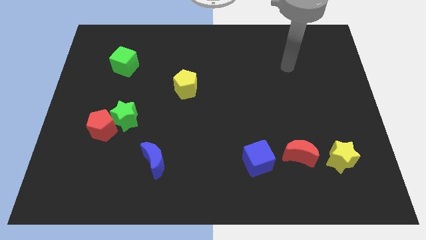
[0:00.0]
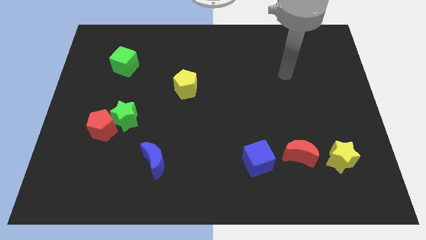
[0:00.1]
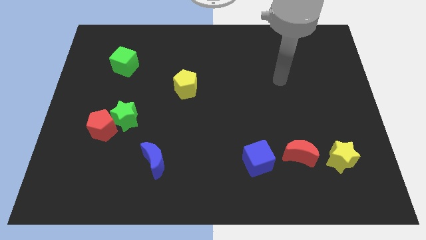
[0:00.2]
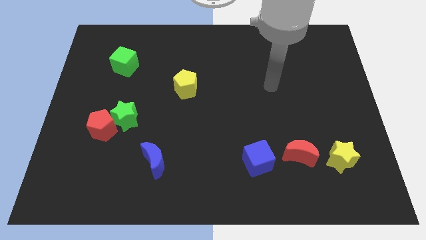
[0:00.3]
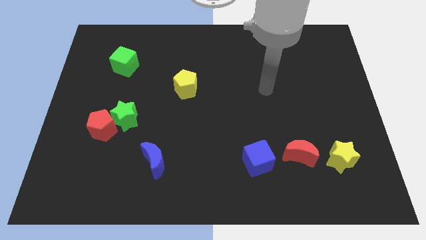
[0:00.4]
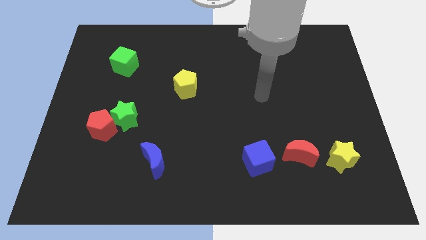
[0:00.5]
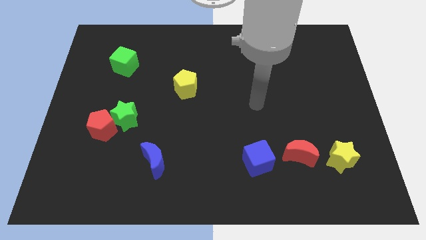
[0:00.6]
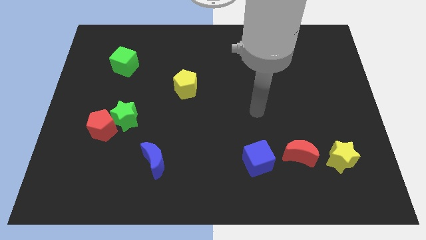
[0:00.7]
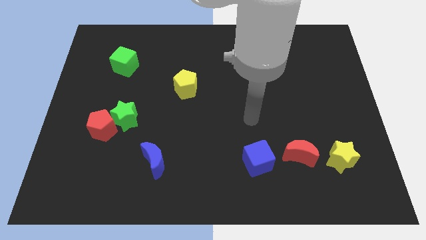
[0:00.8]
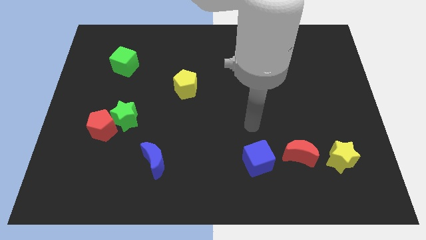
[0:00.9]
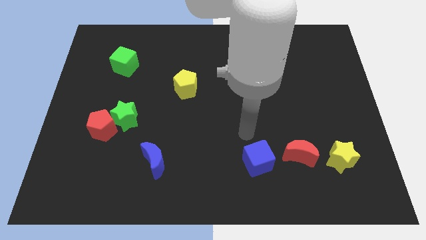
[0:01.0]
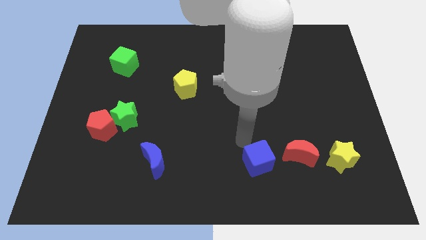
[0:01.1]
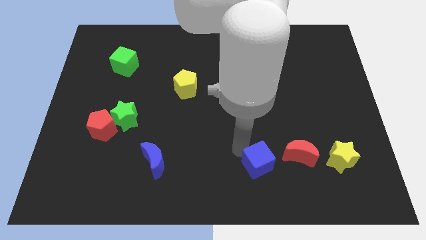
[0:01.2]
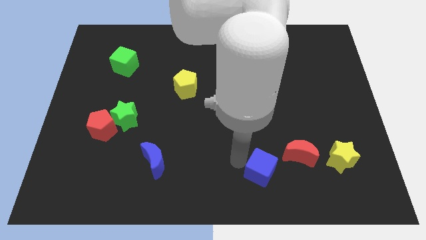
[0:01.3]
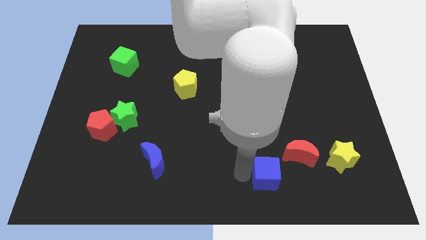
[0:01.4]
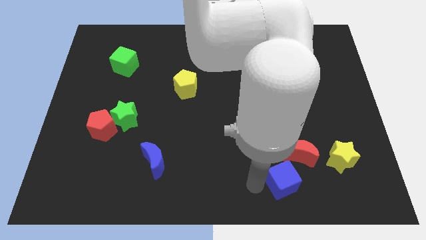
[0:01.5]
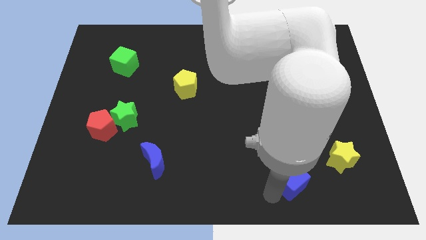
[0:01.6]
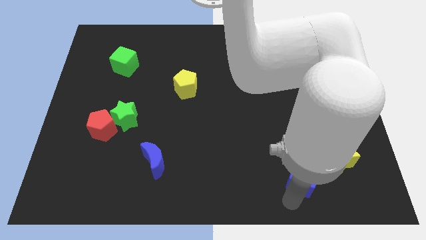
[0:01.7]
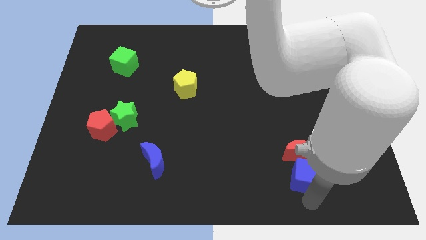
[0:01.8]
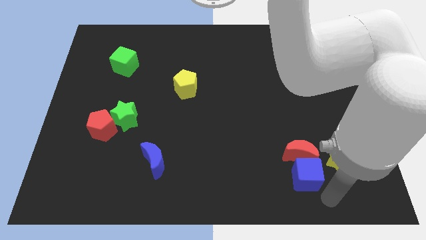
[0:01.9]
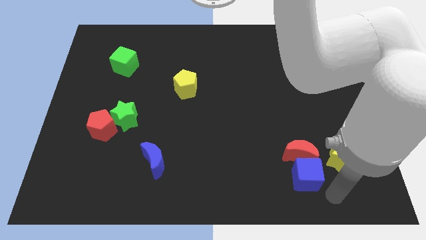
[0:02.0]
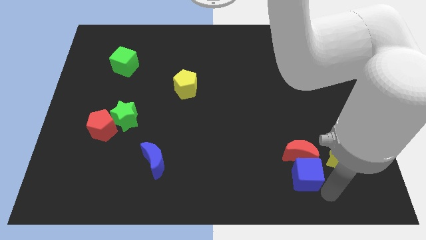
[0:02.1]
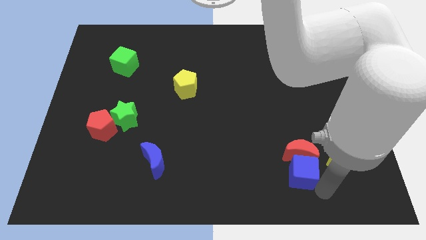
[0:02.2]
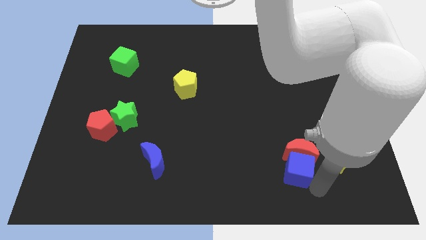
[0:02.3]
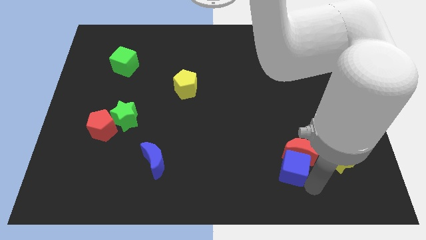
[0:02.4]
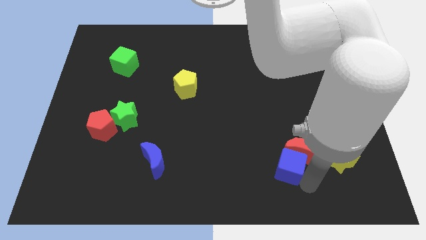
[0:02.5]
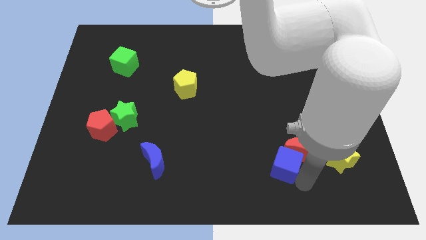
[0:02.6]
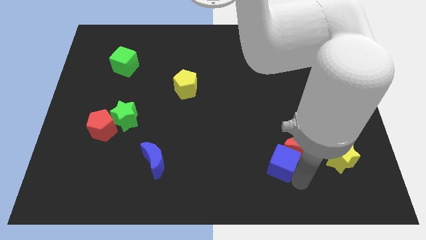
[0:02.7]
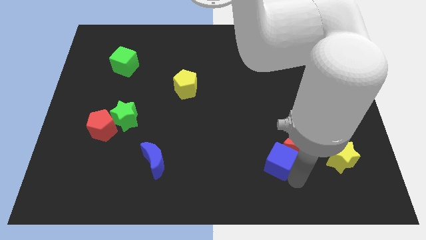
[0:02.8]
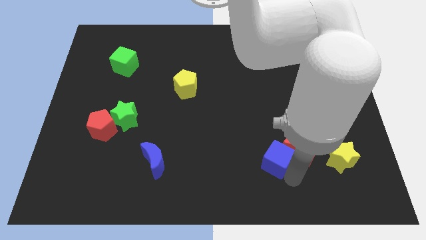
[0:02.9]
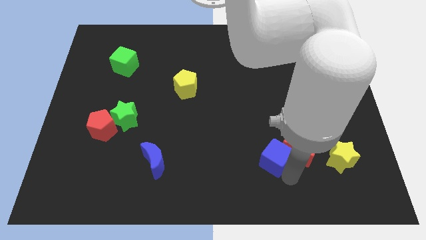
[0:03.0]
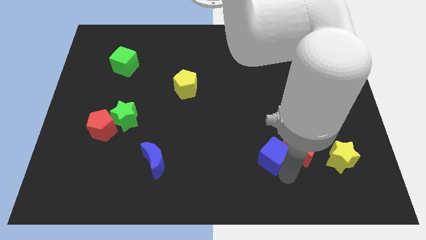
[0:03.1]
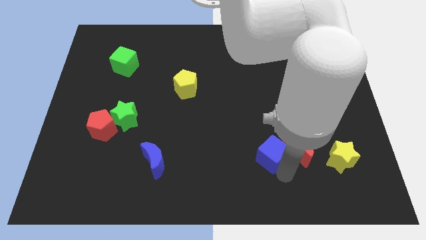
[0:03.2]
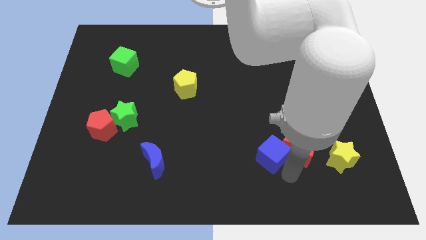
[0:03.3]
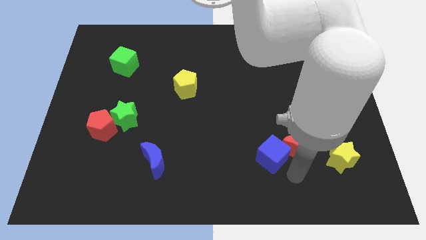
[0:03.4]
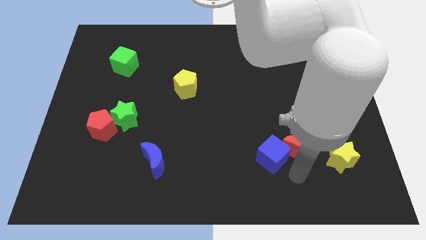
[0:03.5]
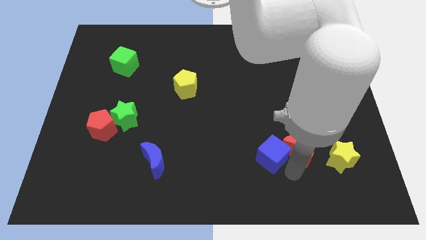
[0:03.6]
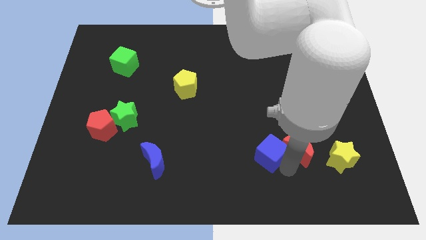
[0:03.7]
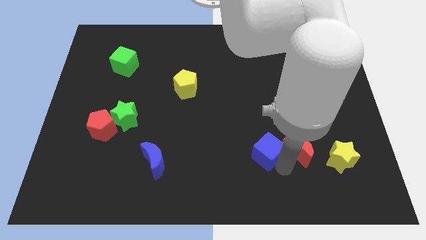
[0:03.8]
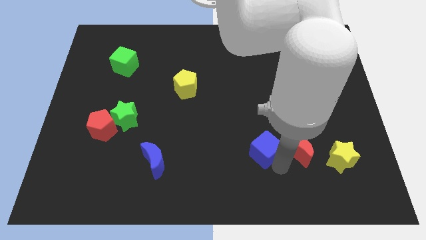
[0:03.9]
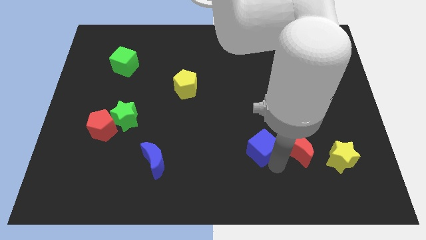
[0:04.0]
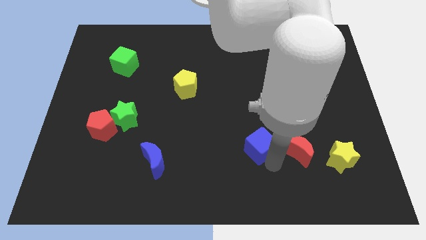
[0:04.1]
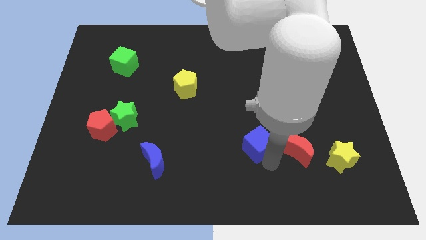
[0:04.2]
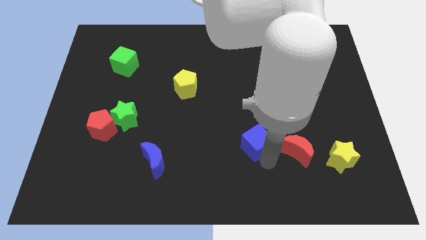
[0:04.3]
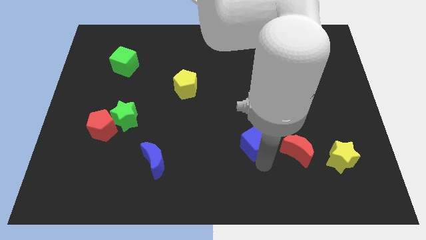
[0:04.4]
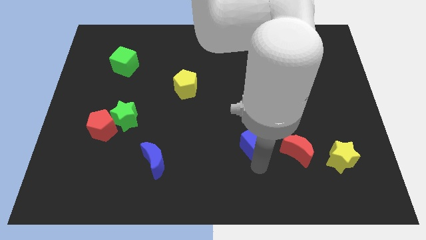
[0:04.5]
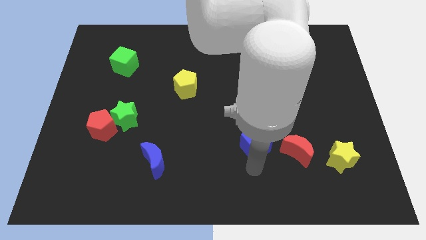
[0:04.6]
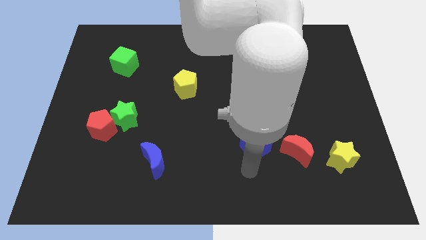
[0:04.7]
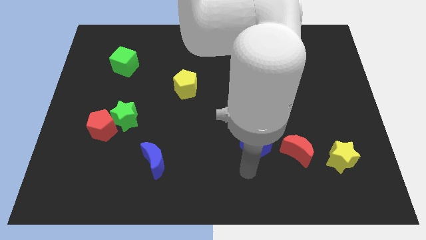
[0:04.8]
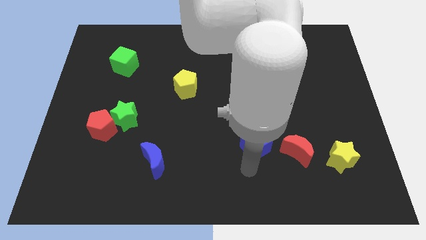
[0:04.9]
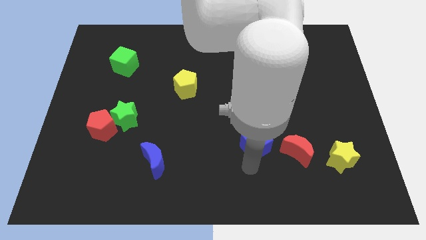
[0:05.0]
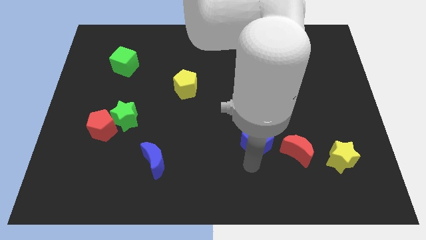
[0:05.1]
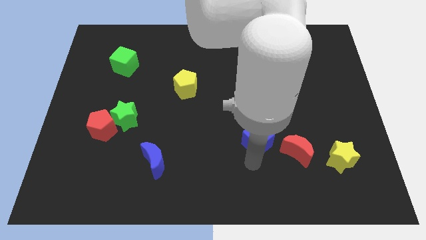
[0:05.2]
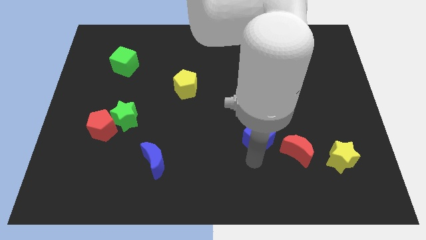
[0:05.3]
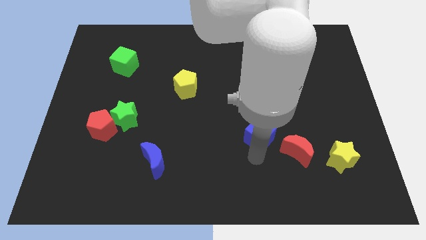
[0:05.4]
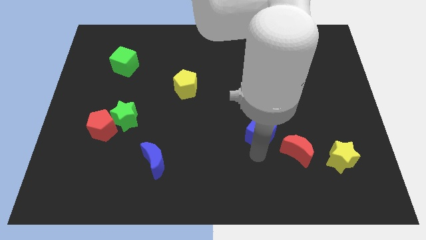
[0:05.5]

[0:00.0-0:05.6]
move the blue cube a little bit up

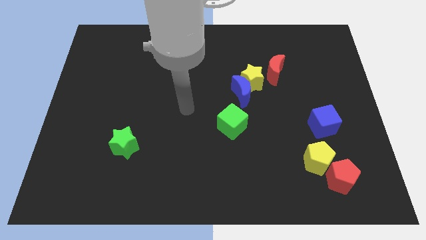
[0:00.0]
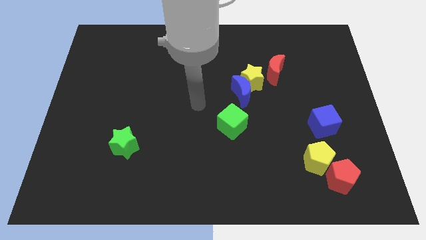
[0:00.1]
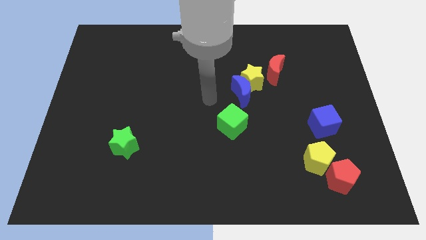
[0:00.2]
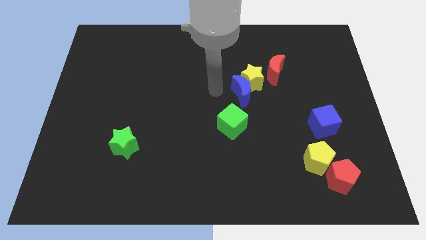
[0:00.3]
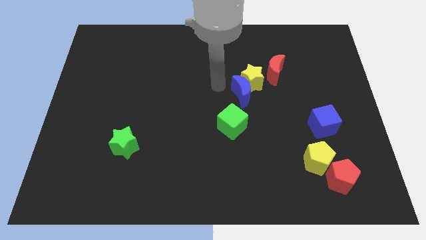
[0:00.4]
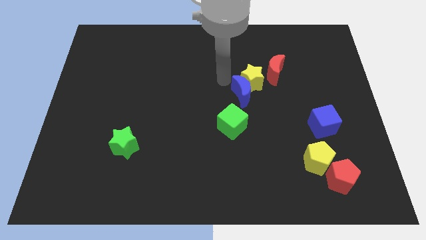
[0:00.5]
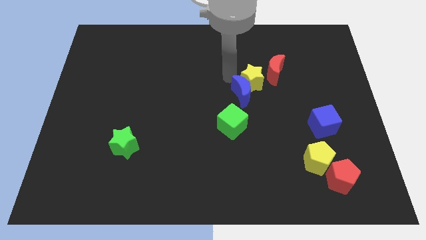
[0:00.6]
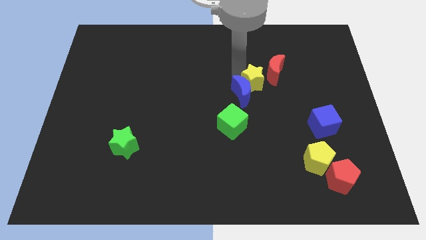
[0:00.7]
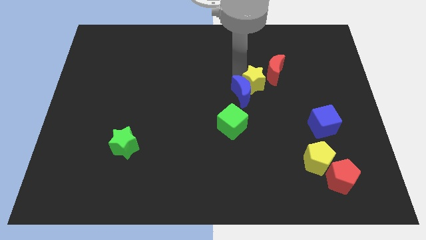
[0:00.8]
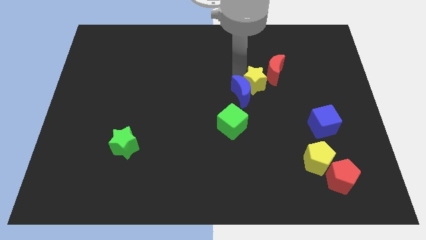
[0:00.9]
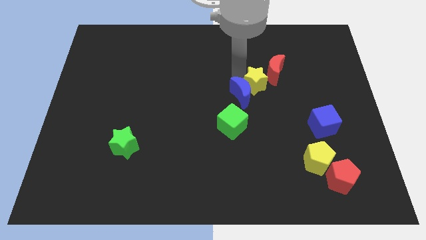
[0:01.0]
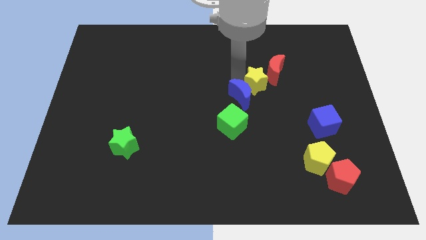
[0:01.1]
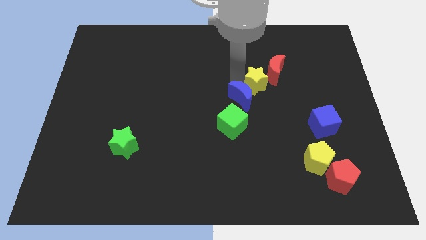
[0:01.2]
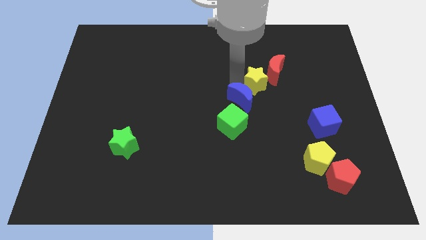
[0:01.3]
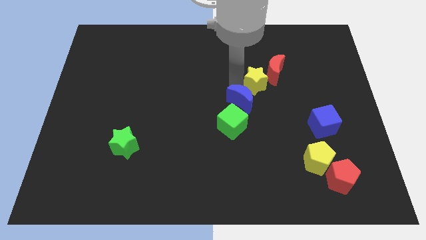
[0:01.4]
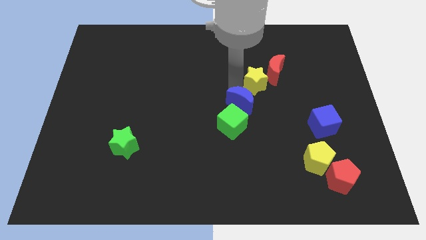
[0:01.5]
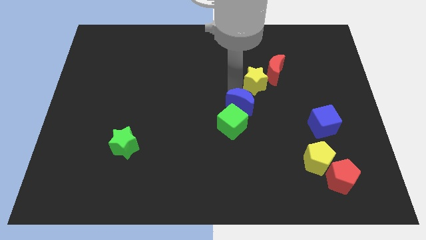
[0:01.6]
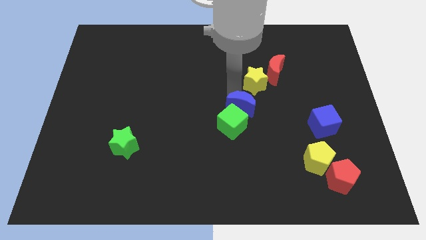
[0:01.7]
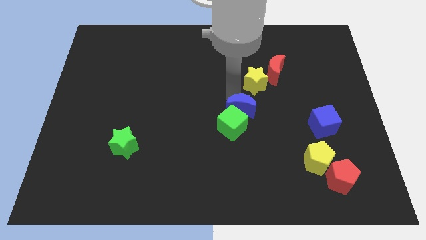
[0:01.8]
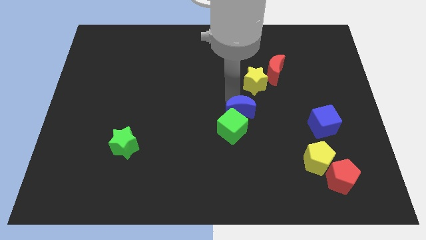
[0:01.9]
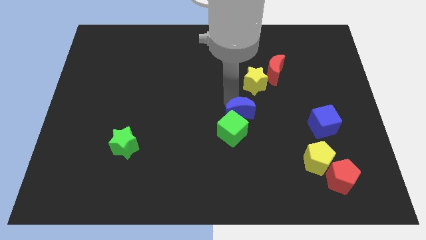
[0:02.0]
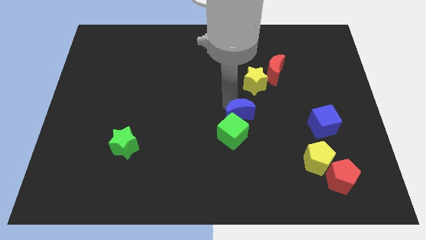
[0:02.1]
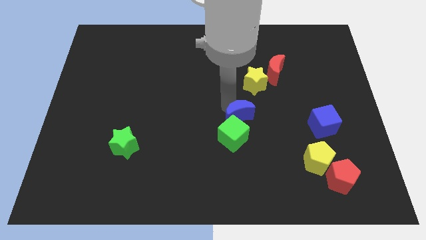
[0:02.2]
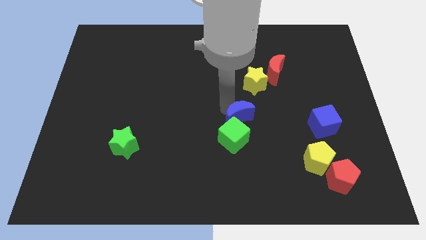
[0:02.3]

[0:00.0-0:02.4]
slide the blue moon down a little
